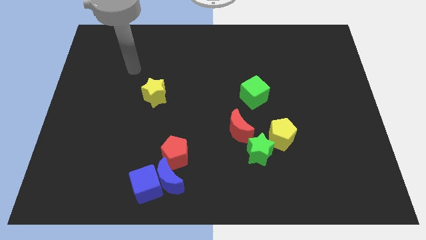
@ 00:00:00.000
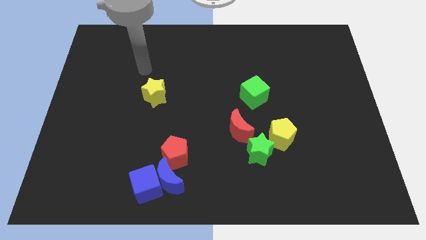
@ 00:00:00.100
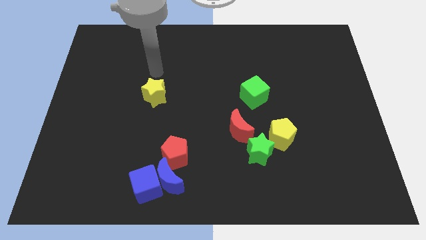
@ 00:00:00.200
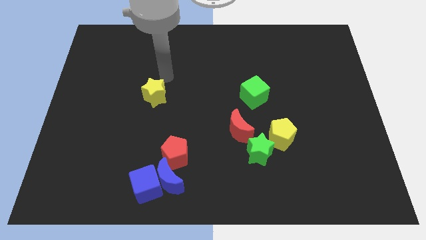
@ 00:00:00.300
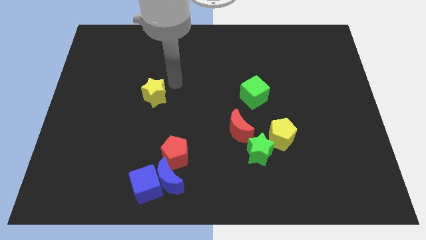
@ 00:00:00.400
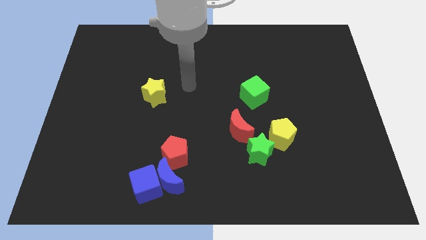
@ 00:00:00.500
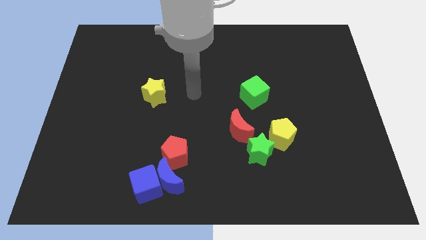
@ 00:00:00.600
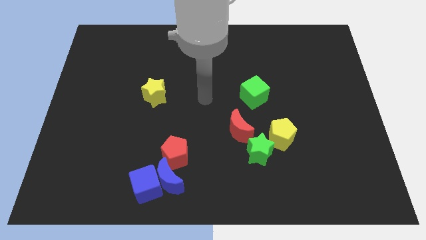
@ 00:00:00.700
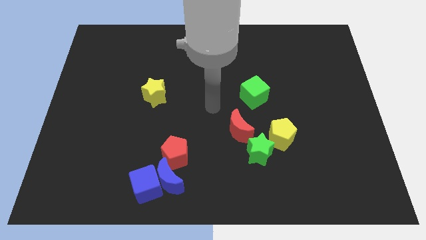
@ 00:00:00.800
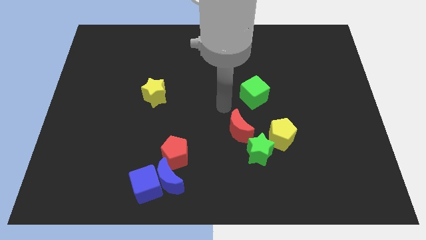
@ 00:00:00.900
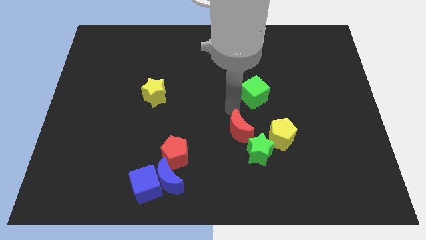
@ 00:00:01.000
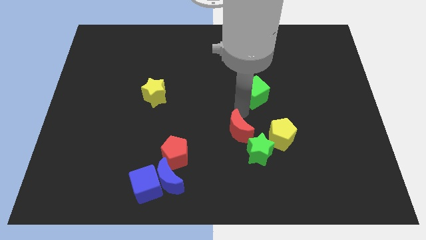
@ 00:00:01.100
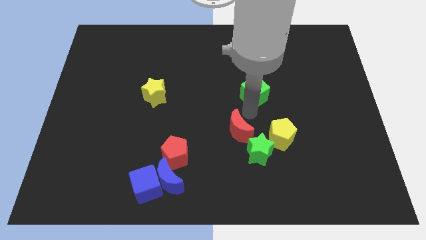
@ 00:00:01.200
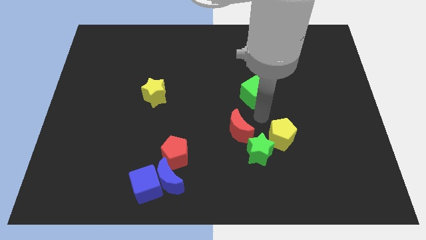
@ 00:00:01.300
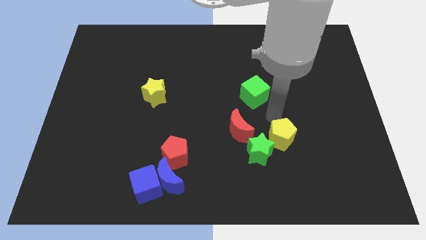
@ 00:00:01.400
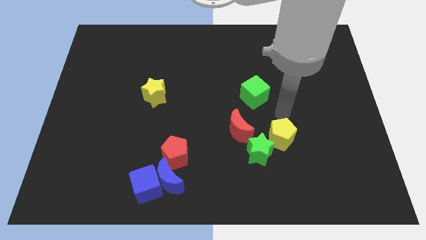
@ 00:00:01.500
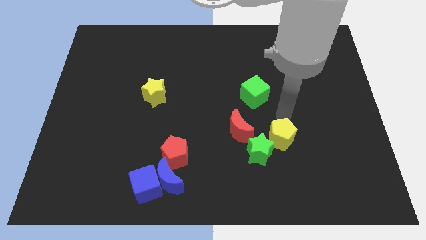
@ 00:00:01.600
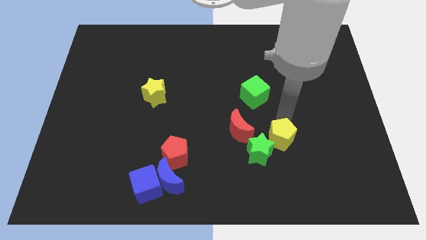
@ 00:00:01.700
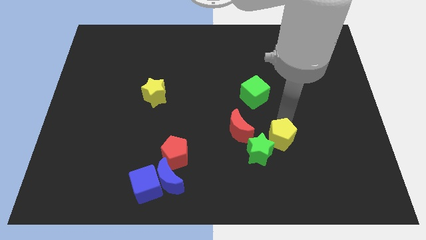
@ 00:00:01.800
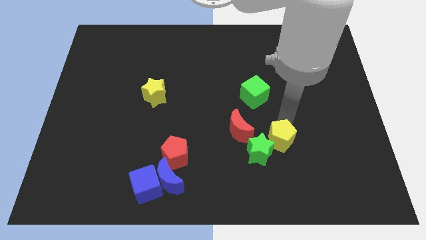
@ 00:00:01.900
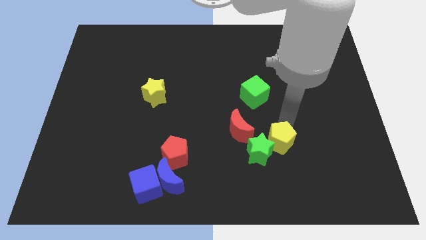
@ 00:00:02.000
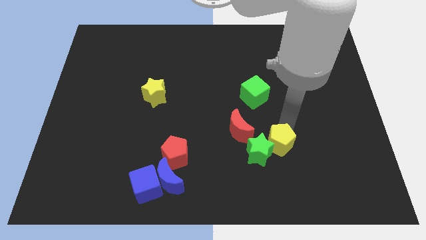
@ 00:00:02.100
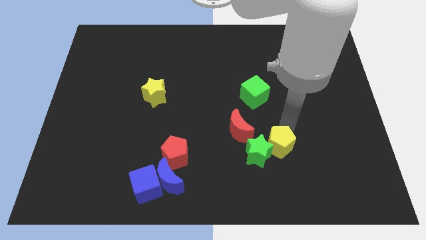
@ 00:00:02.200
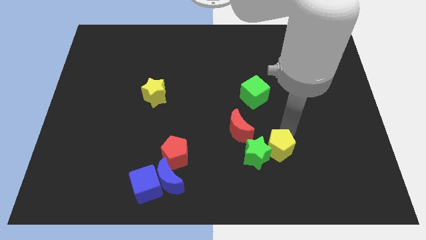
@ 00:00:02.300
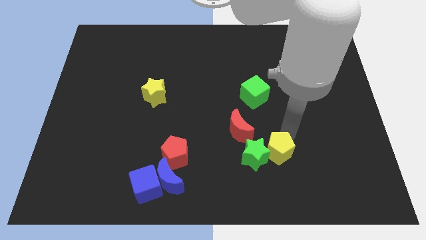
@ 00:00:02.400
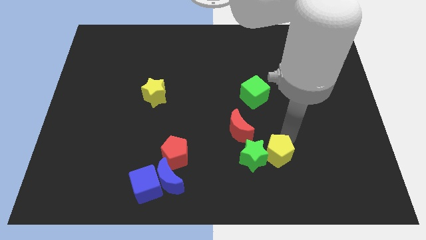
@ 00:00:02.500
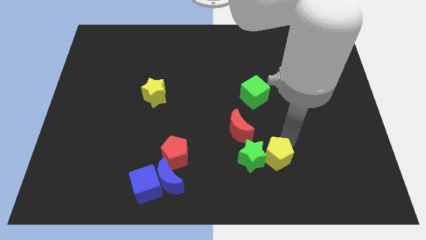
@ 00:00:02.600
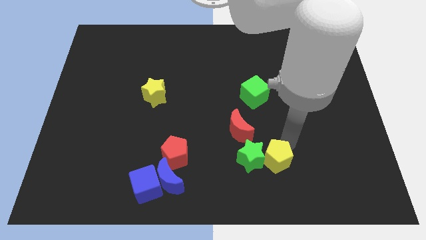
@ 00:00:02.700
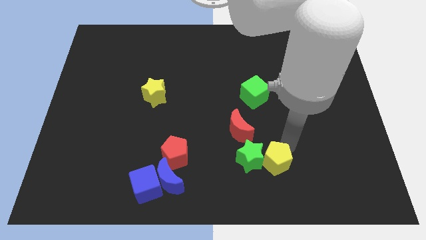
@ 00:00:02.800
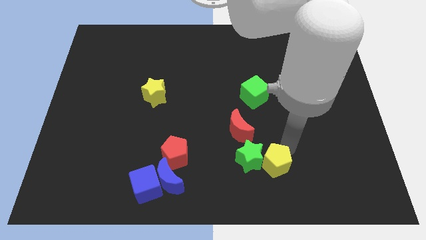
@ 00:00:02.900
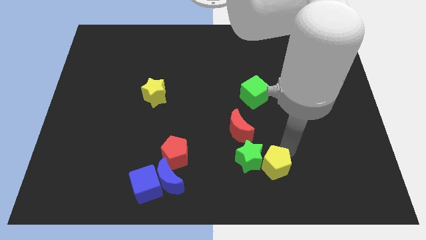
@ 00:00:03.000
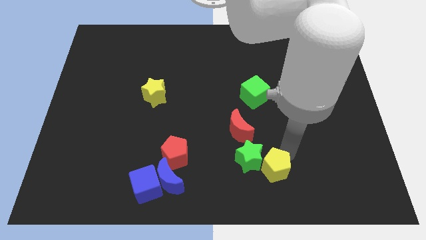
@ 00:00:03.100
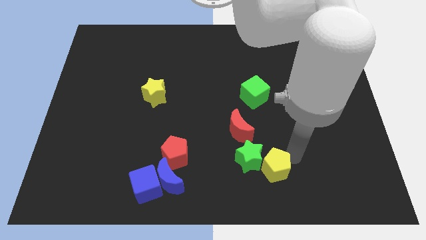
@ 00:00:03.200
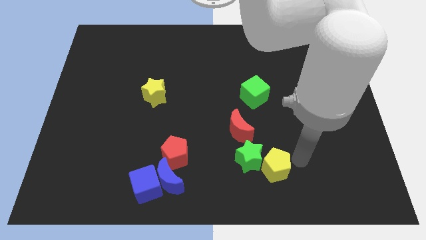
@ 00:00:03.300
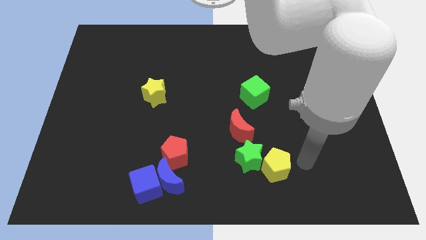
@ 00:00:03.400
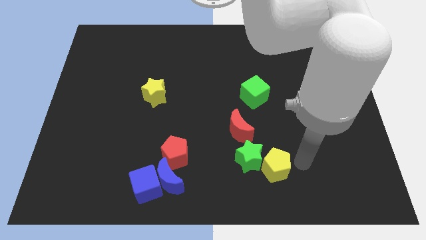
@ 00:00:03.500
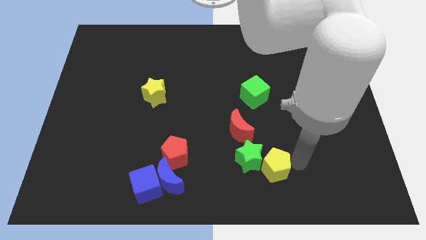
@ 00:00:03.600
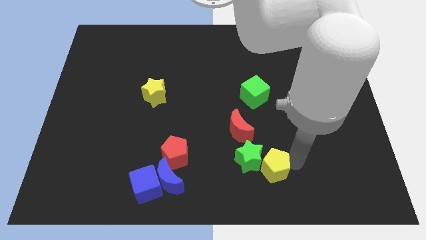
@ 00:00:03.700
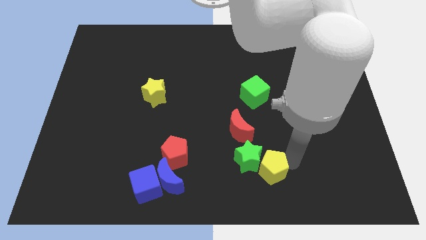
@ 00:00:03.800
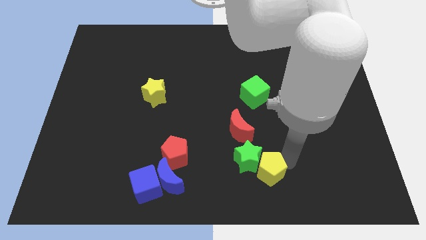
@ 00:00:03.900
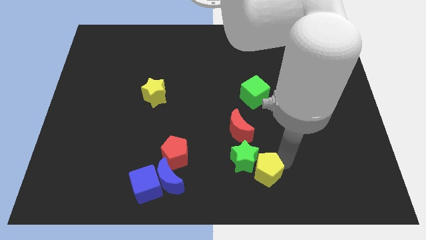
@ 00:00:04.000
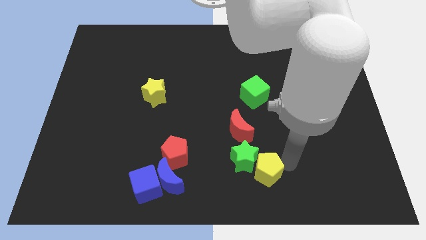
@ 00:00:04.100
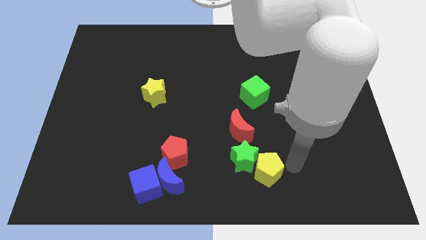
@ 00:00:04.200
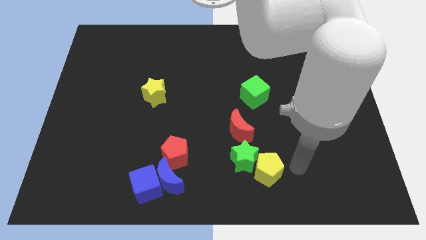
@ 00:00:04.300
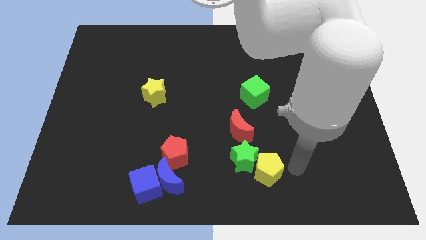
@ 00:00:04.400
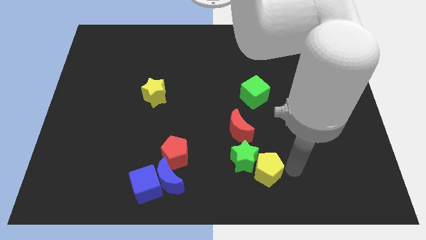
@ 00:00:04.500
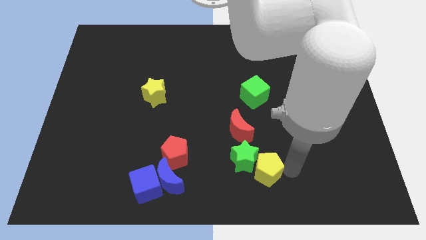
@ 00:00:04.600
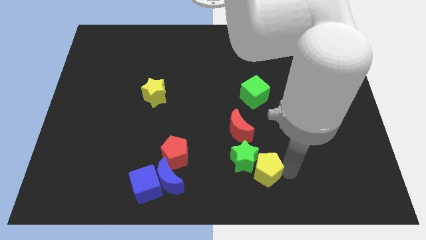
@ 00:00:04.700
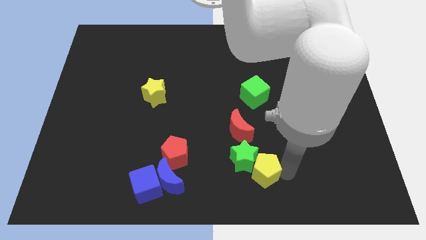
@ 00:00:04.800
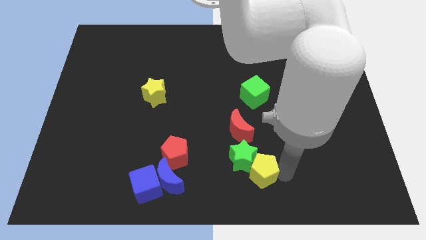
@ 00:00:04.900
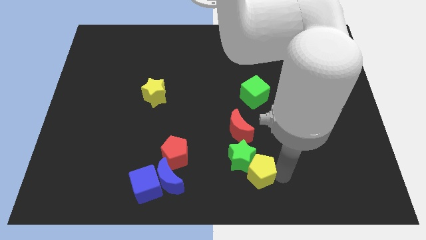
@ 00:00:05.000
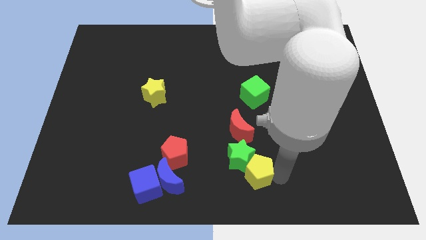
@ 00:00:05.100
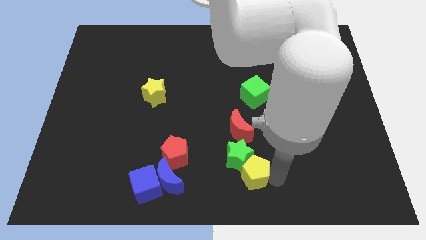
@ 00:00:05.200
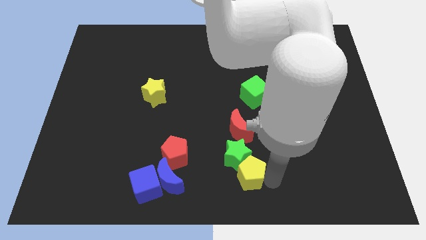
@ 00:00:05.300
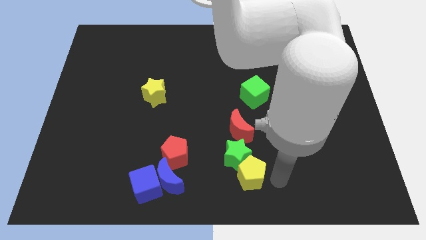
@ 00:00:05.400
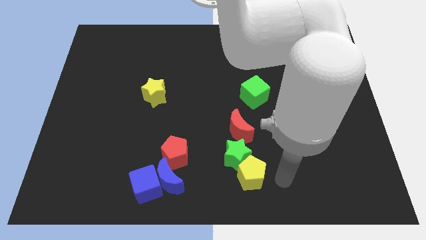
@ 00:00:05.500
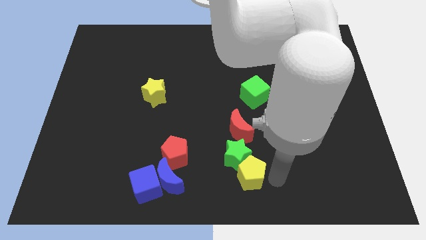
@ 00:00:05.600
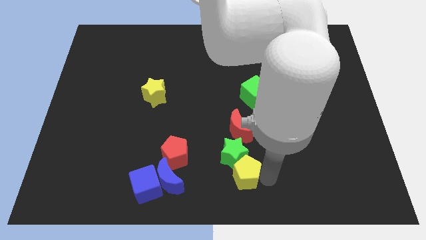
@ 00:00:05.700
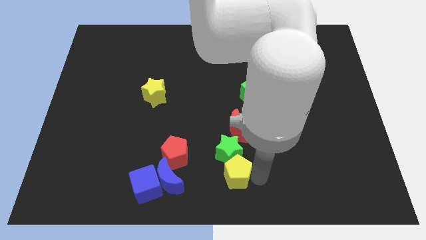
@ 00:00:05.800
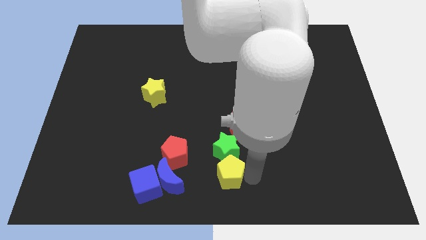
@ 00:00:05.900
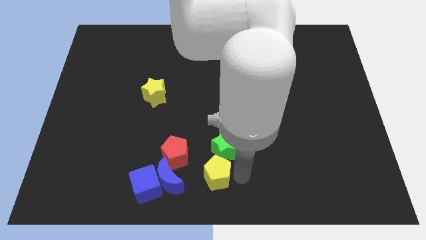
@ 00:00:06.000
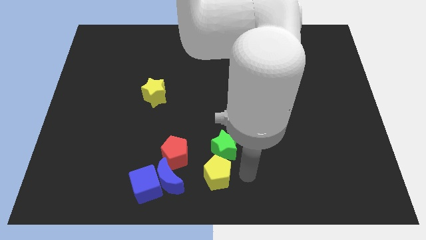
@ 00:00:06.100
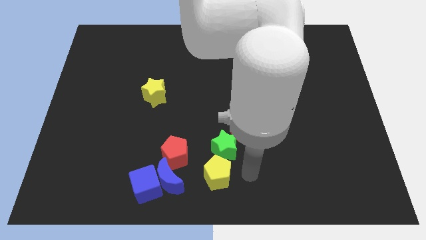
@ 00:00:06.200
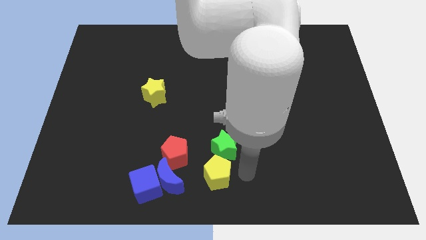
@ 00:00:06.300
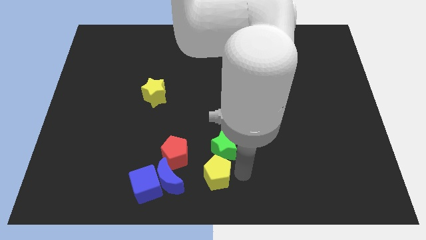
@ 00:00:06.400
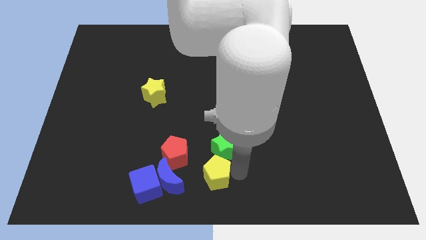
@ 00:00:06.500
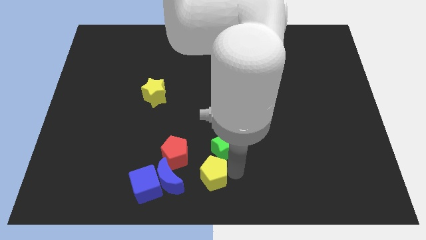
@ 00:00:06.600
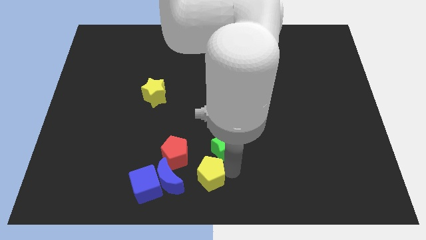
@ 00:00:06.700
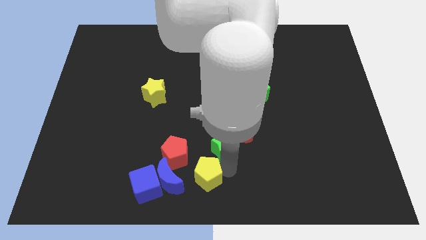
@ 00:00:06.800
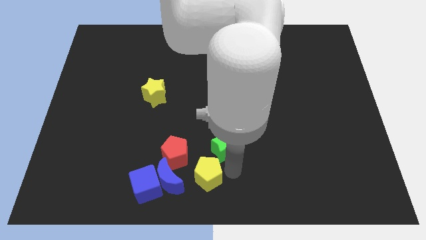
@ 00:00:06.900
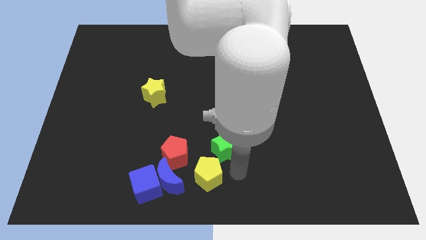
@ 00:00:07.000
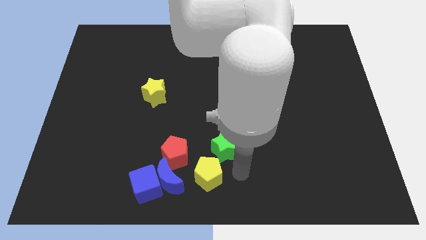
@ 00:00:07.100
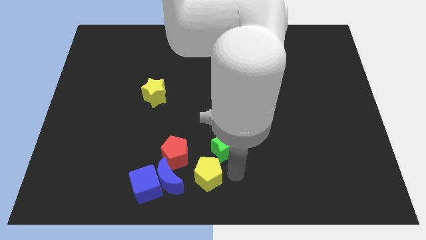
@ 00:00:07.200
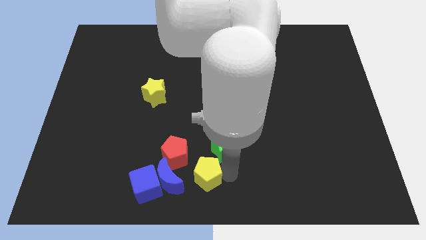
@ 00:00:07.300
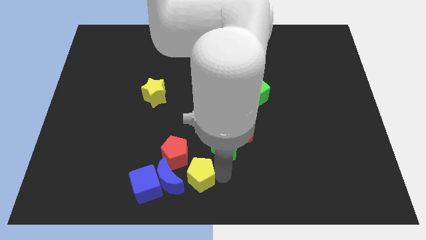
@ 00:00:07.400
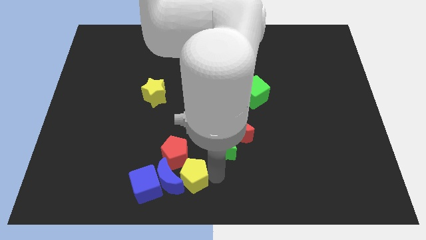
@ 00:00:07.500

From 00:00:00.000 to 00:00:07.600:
move the yellow pentagon next to the blue moon
